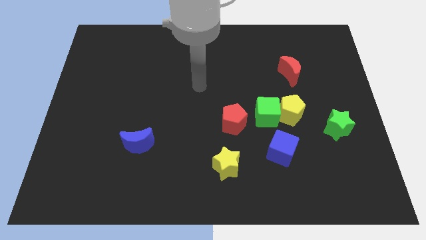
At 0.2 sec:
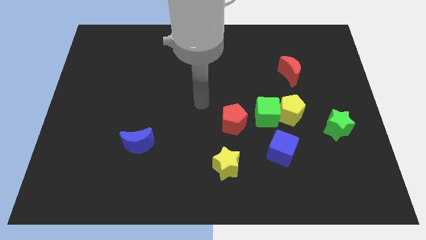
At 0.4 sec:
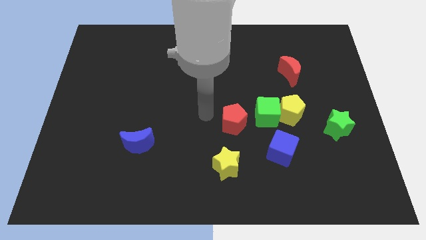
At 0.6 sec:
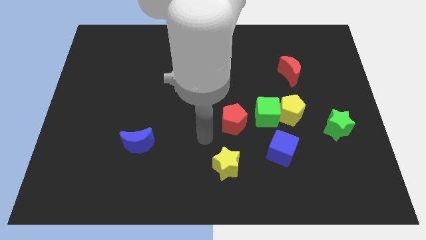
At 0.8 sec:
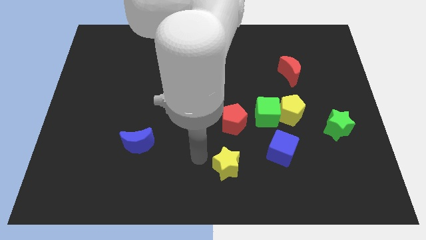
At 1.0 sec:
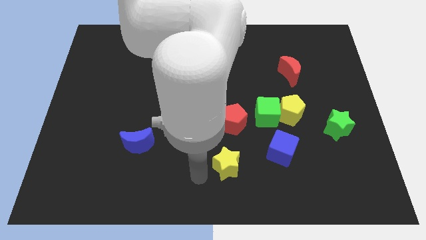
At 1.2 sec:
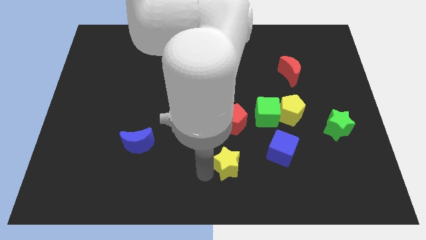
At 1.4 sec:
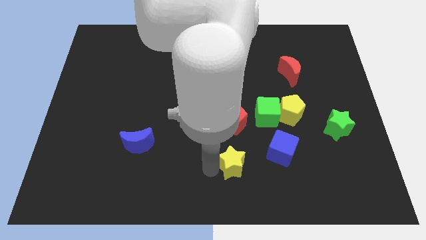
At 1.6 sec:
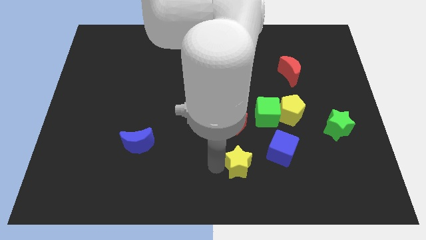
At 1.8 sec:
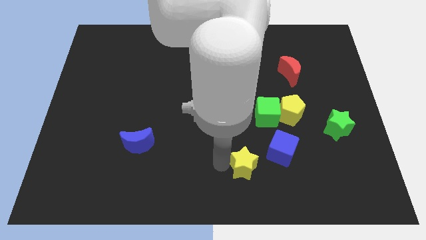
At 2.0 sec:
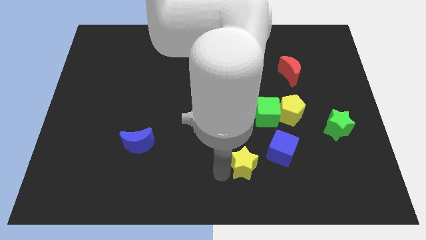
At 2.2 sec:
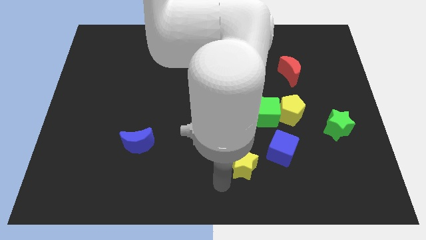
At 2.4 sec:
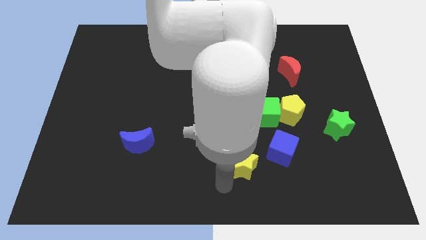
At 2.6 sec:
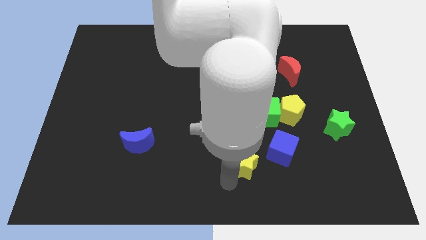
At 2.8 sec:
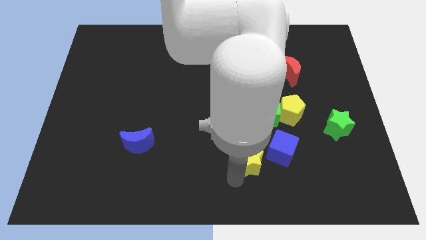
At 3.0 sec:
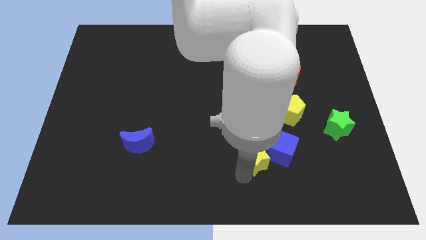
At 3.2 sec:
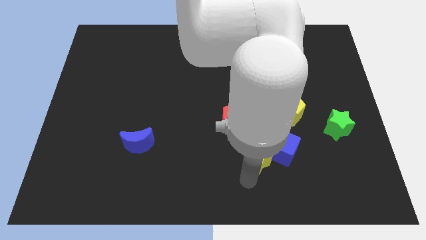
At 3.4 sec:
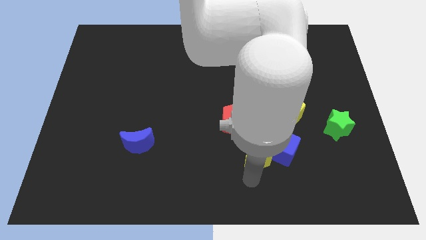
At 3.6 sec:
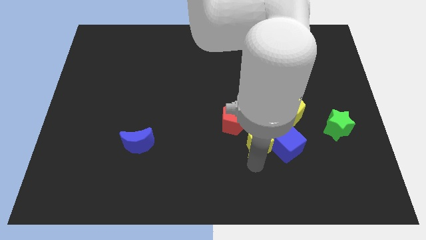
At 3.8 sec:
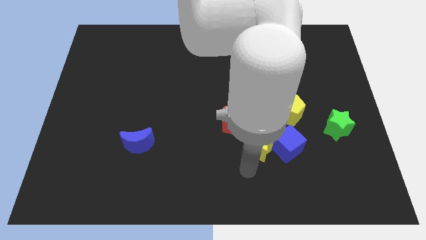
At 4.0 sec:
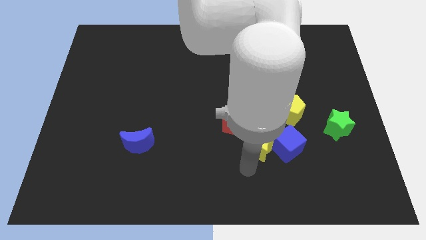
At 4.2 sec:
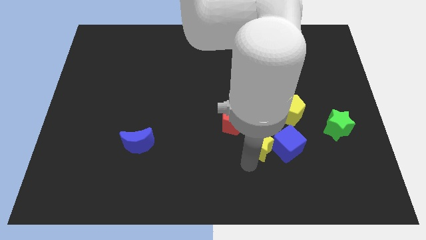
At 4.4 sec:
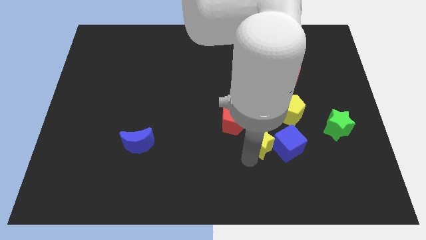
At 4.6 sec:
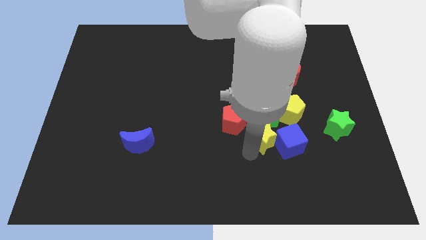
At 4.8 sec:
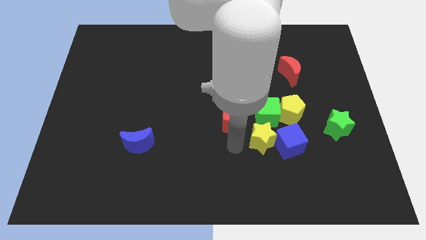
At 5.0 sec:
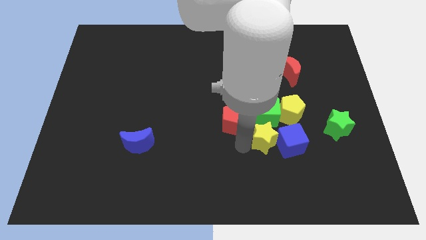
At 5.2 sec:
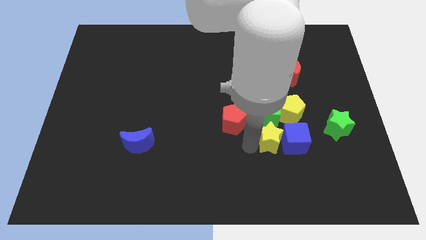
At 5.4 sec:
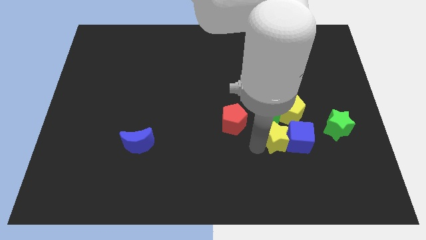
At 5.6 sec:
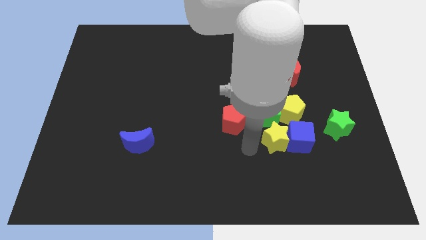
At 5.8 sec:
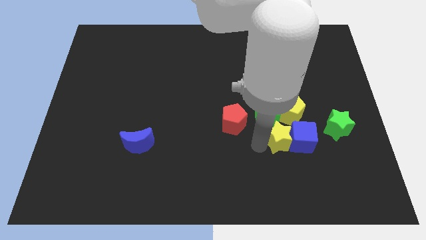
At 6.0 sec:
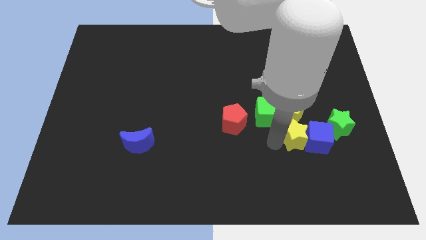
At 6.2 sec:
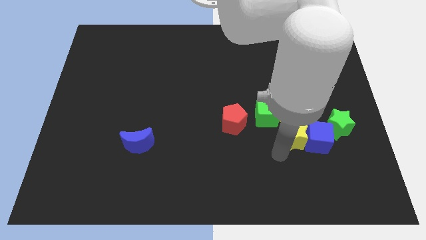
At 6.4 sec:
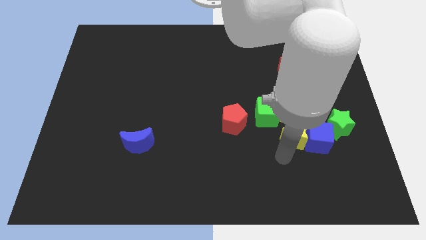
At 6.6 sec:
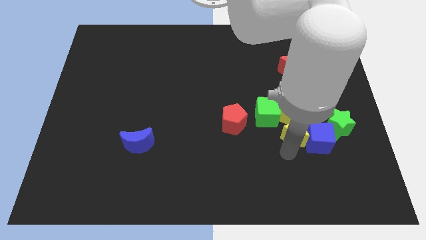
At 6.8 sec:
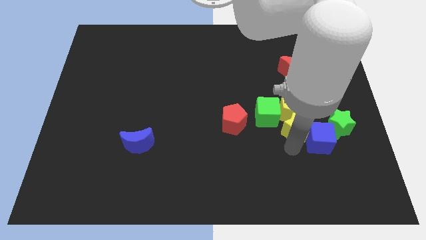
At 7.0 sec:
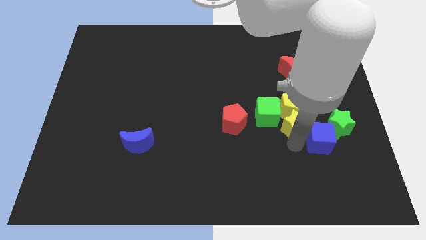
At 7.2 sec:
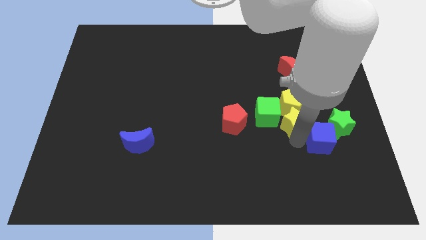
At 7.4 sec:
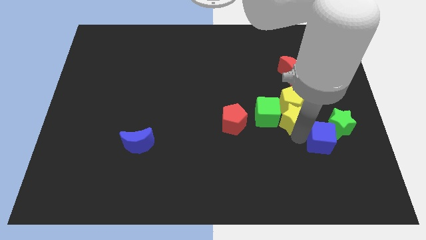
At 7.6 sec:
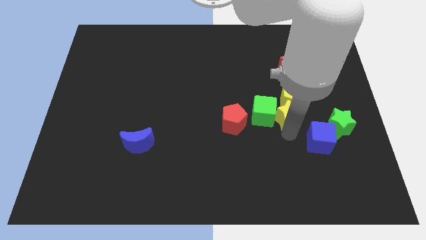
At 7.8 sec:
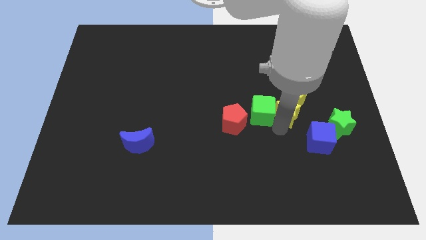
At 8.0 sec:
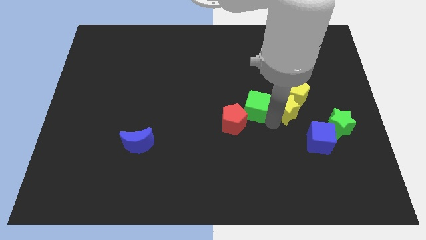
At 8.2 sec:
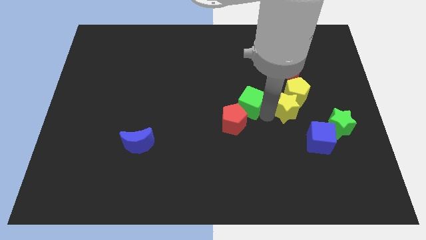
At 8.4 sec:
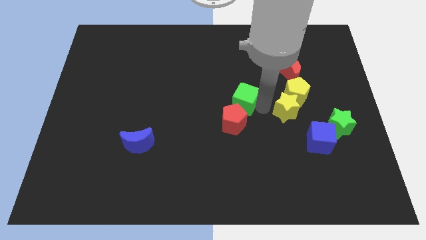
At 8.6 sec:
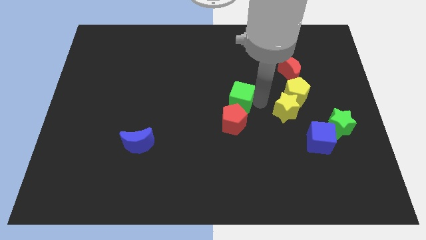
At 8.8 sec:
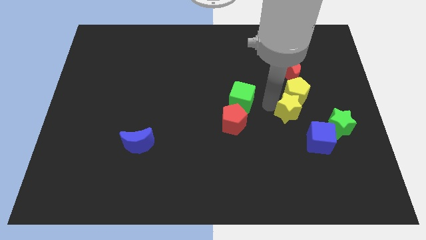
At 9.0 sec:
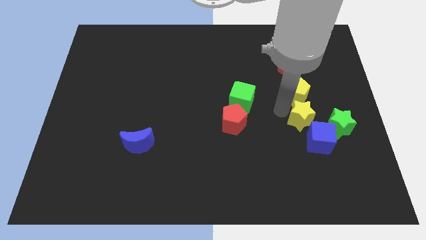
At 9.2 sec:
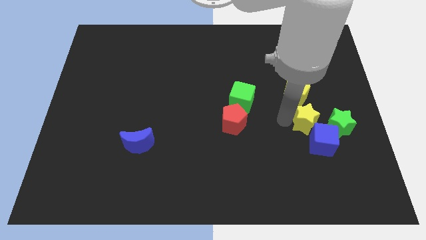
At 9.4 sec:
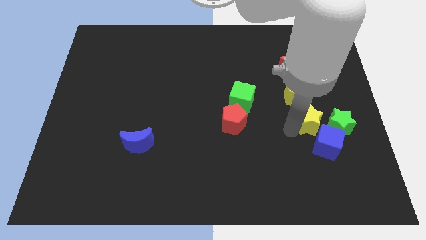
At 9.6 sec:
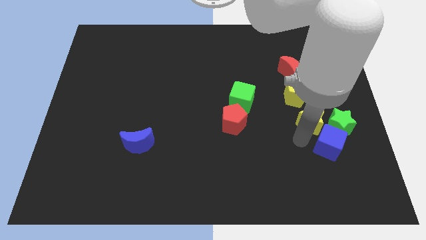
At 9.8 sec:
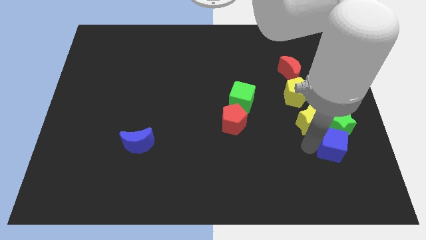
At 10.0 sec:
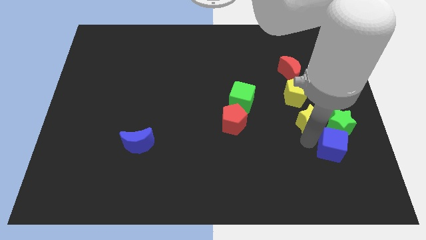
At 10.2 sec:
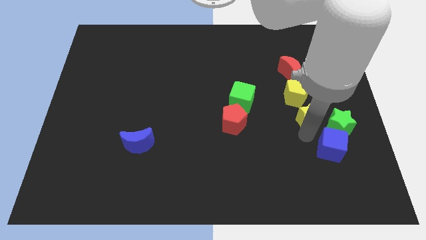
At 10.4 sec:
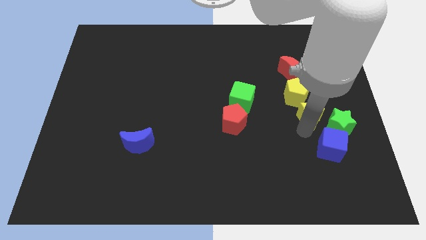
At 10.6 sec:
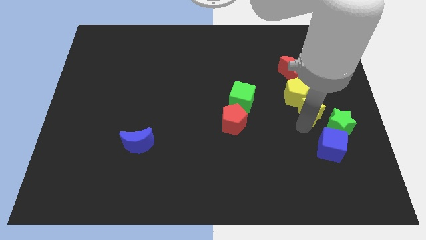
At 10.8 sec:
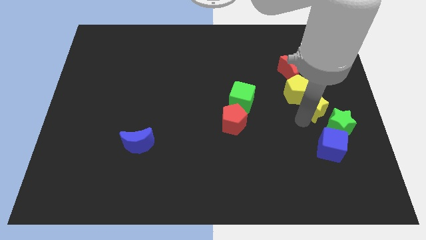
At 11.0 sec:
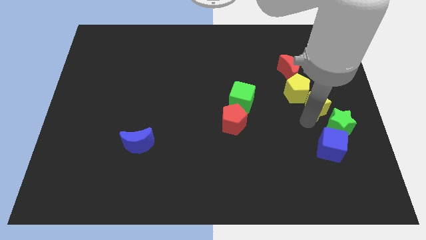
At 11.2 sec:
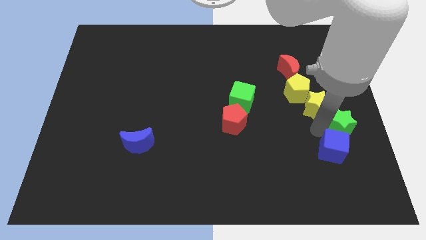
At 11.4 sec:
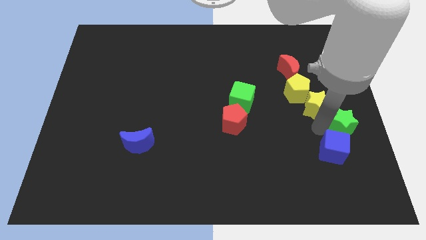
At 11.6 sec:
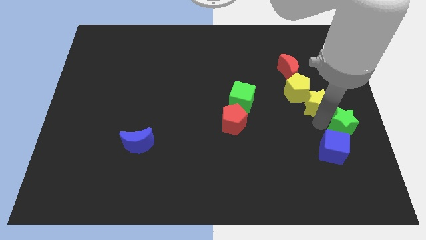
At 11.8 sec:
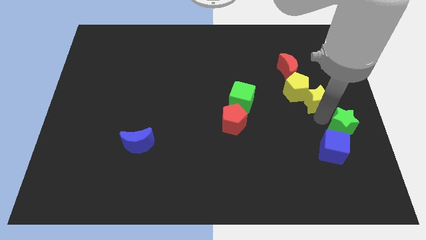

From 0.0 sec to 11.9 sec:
slide the yellow star diagonally down and to the right of the red moon

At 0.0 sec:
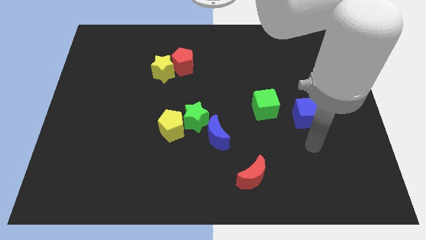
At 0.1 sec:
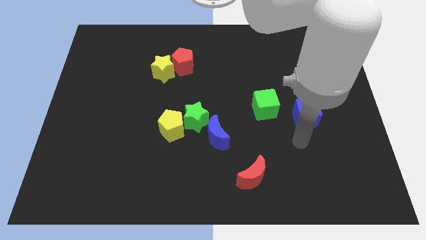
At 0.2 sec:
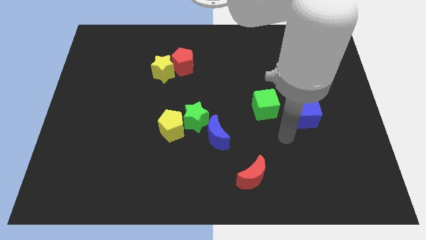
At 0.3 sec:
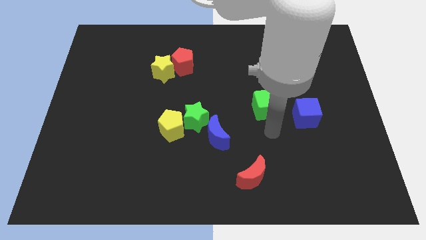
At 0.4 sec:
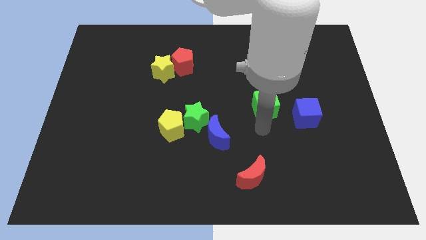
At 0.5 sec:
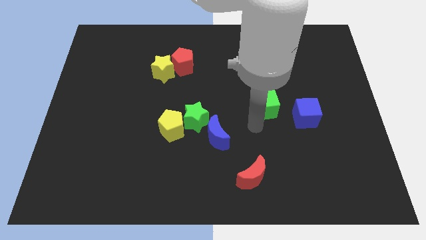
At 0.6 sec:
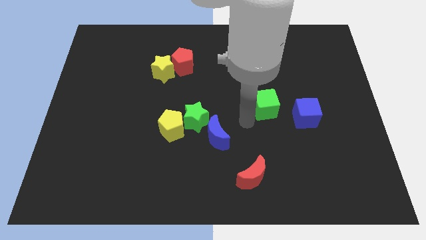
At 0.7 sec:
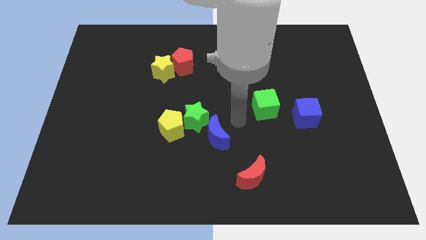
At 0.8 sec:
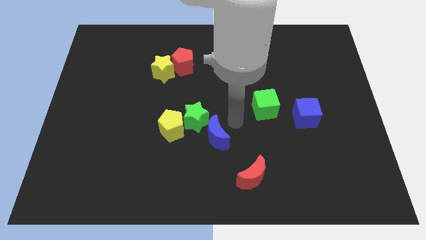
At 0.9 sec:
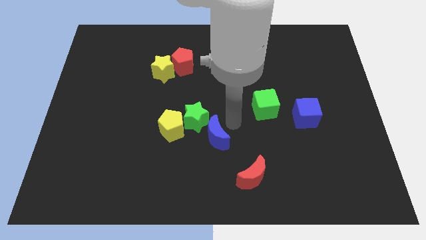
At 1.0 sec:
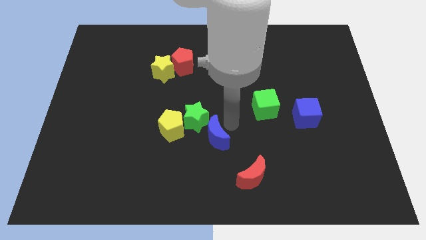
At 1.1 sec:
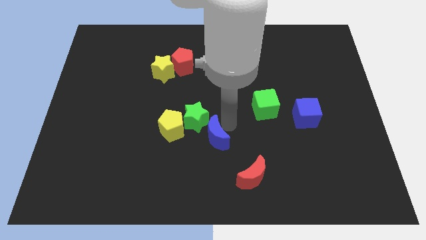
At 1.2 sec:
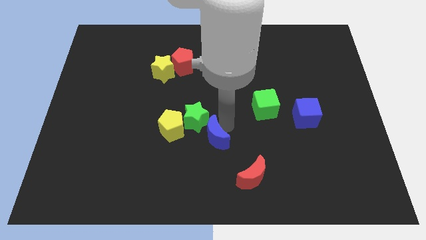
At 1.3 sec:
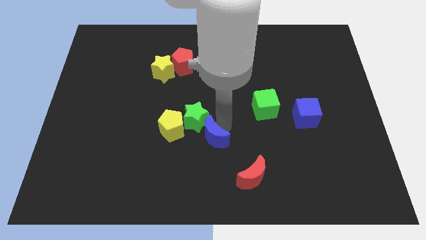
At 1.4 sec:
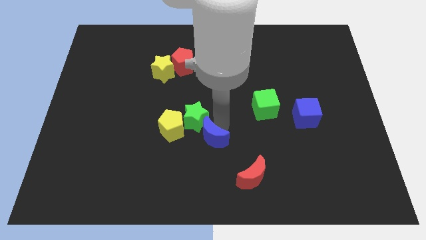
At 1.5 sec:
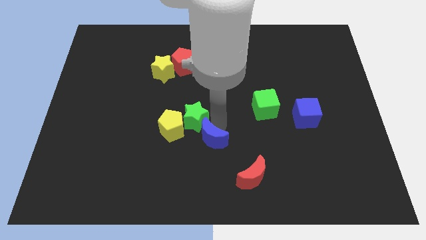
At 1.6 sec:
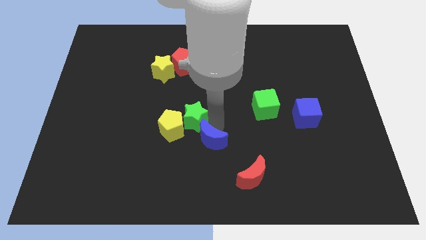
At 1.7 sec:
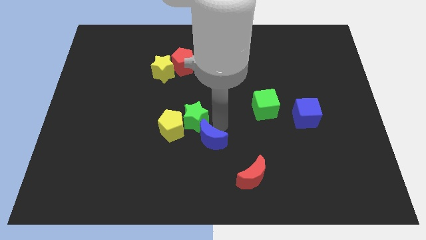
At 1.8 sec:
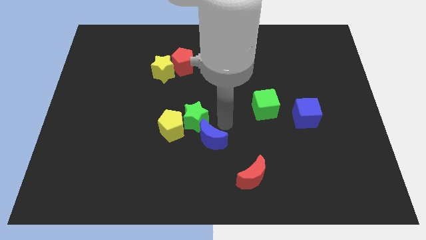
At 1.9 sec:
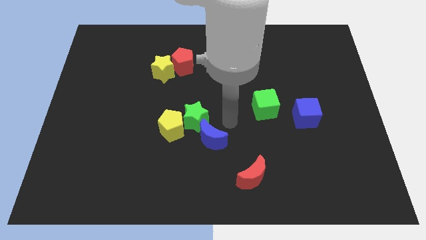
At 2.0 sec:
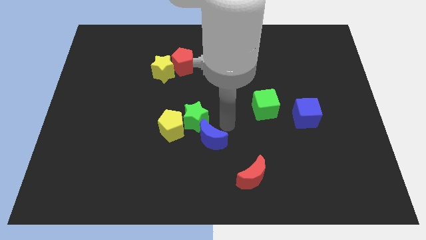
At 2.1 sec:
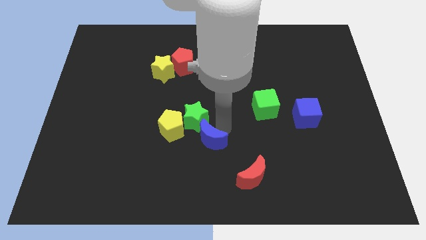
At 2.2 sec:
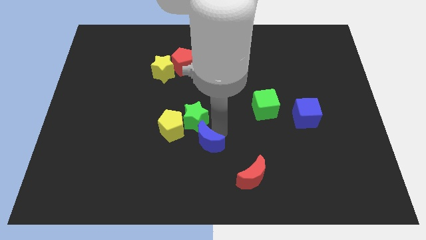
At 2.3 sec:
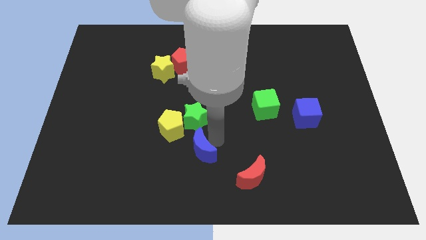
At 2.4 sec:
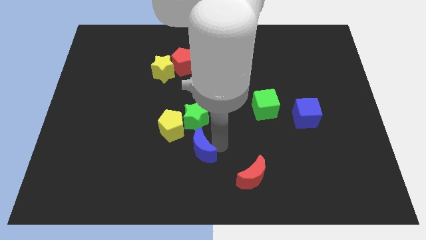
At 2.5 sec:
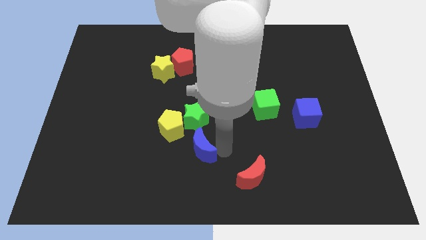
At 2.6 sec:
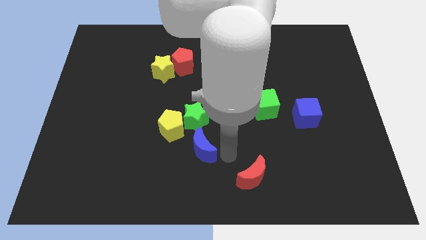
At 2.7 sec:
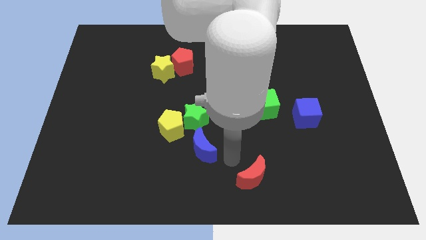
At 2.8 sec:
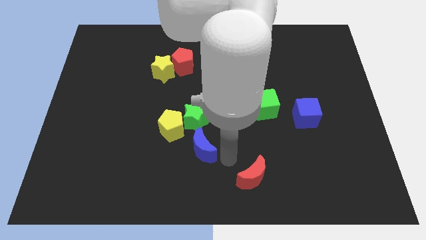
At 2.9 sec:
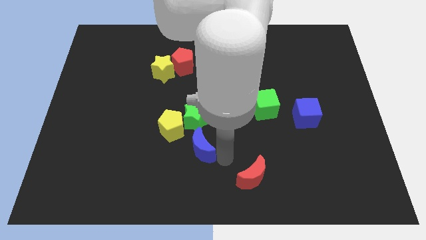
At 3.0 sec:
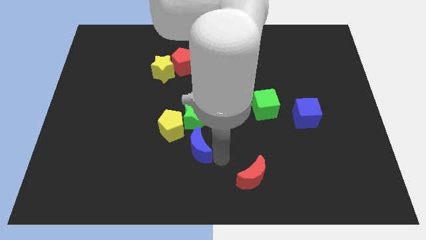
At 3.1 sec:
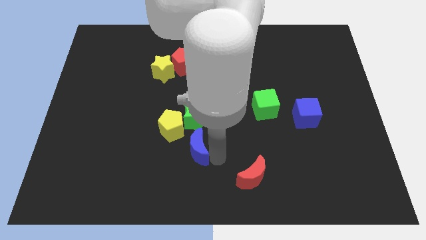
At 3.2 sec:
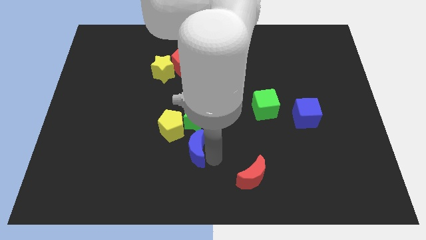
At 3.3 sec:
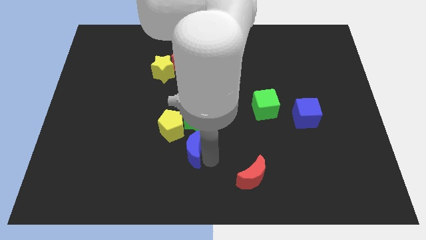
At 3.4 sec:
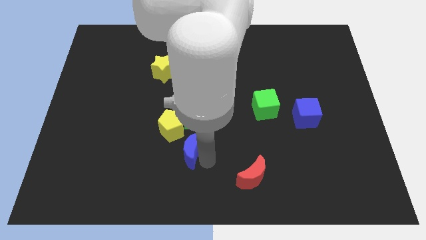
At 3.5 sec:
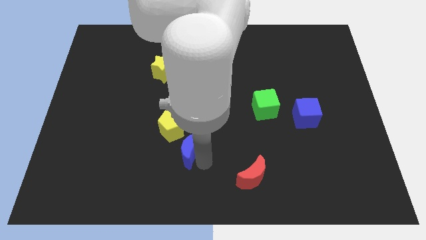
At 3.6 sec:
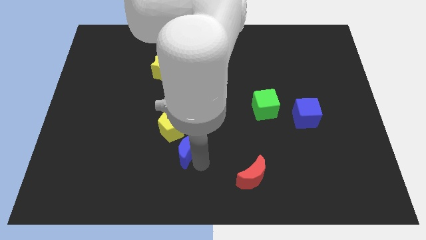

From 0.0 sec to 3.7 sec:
push the blue moon to the bottom left side of the green star
